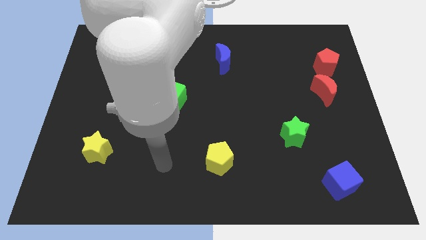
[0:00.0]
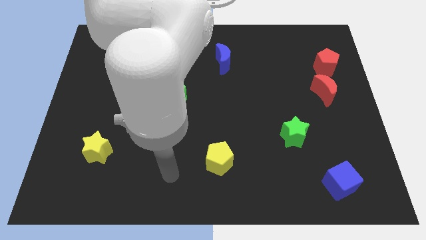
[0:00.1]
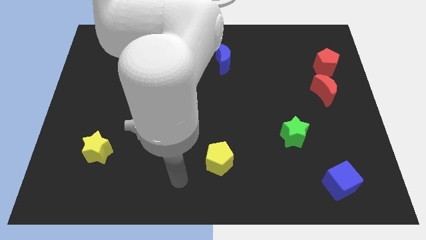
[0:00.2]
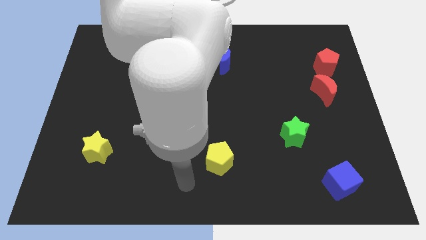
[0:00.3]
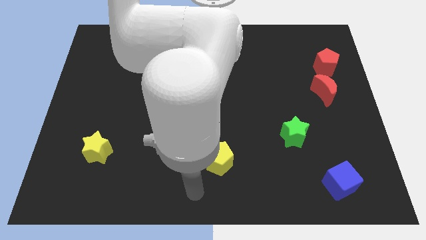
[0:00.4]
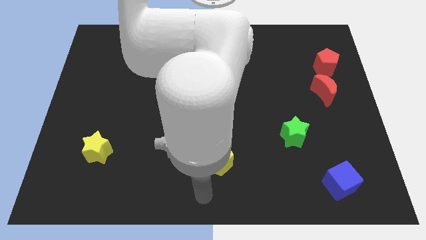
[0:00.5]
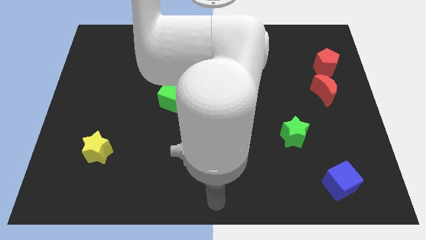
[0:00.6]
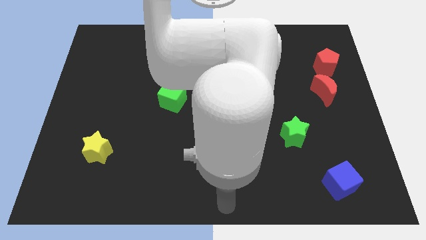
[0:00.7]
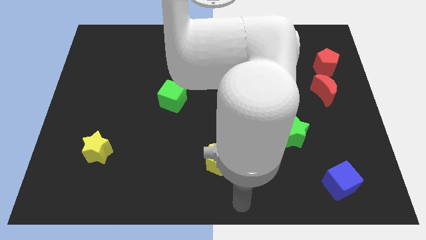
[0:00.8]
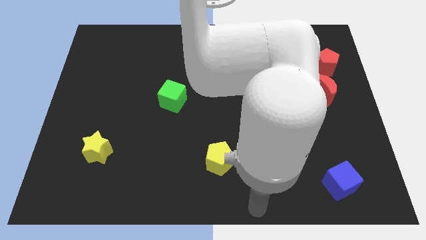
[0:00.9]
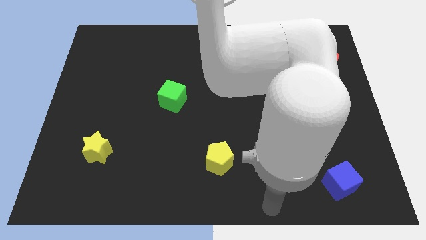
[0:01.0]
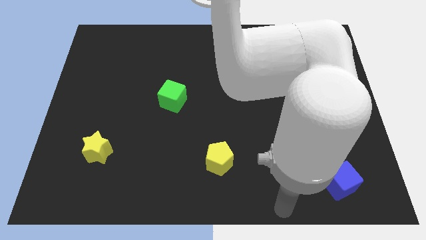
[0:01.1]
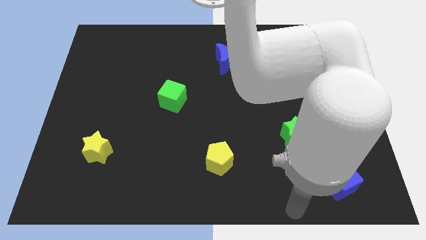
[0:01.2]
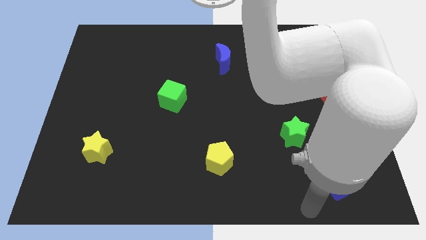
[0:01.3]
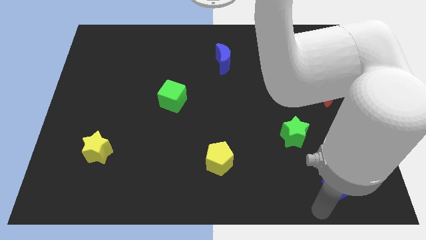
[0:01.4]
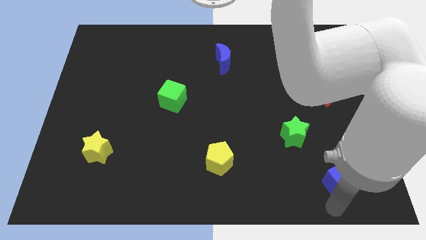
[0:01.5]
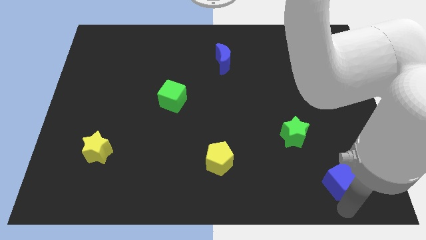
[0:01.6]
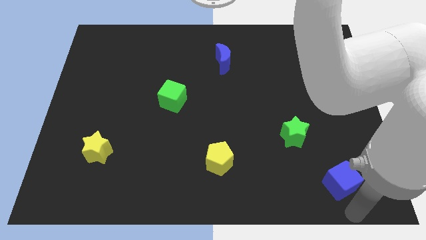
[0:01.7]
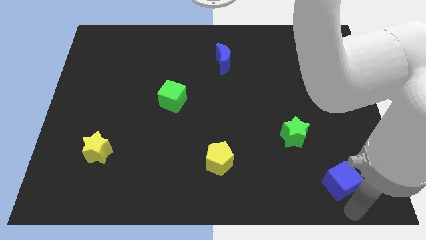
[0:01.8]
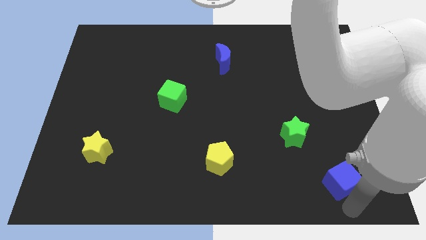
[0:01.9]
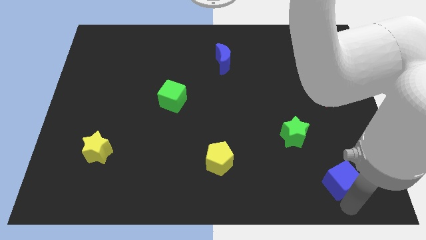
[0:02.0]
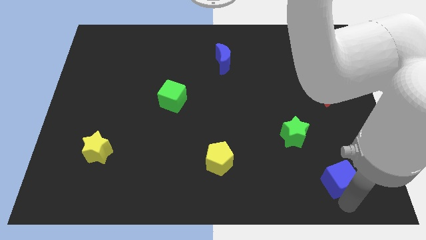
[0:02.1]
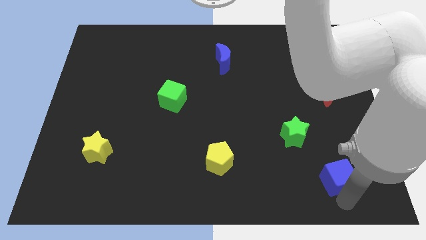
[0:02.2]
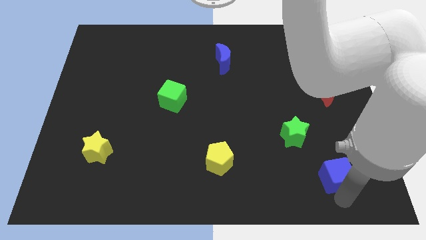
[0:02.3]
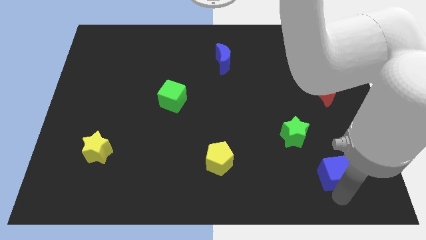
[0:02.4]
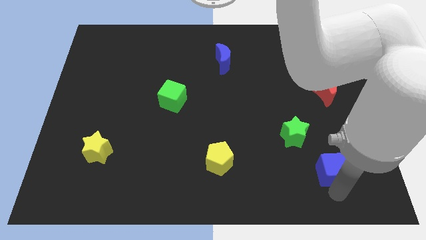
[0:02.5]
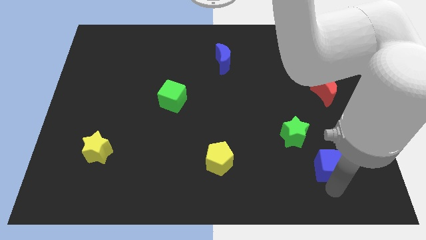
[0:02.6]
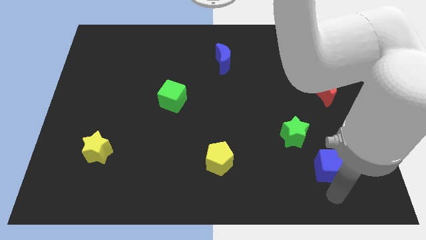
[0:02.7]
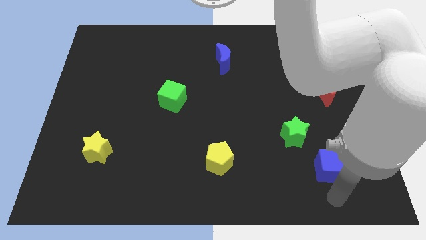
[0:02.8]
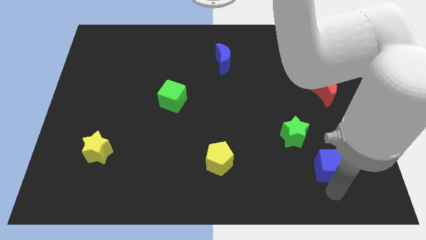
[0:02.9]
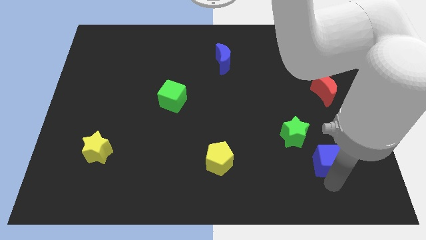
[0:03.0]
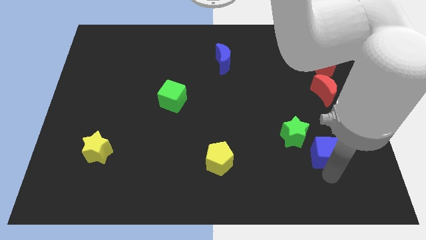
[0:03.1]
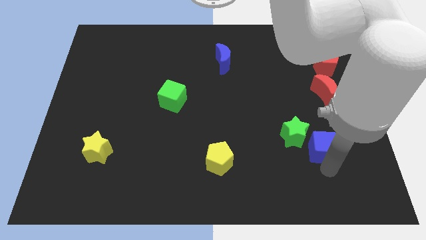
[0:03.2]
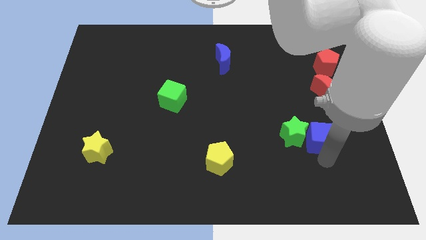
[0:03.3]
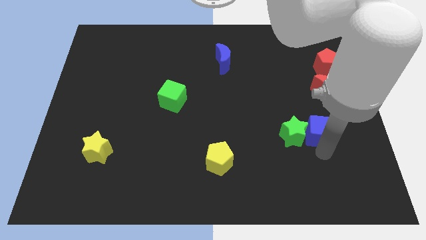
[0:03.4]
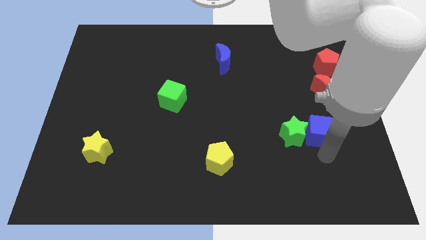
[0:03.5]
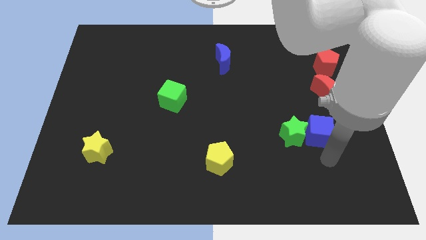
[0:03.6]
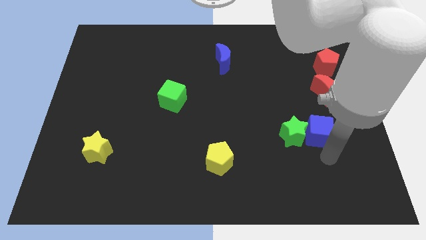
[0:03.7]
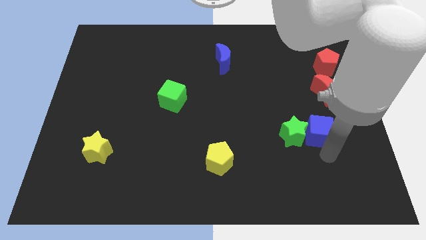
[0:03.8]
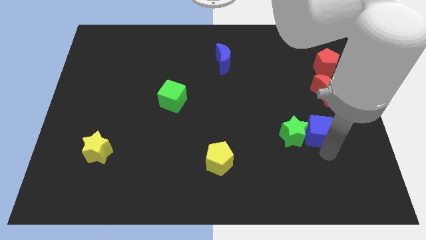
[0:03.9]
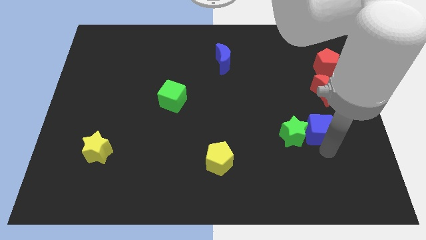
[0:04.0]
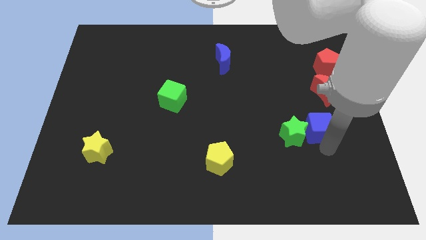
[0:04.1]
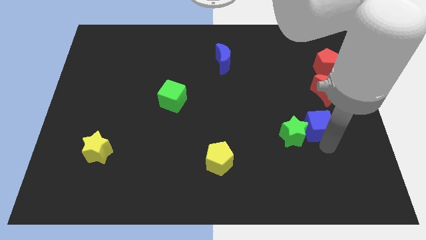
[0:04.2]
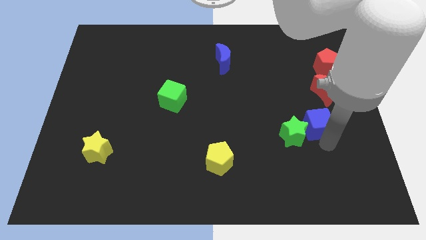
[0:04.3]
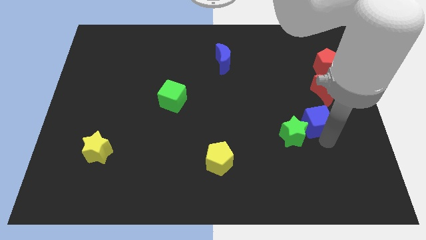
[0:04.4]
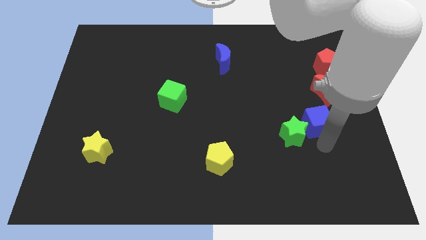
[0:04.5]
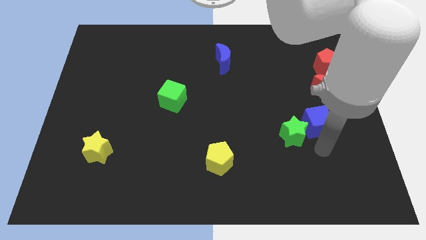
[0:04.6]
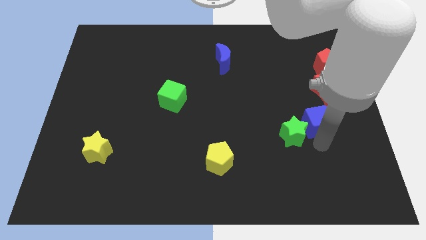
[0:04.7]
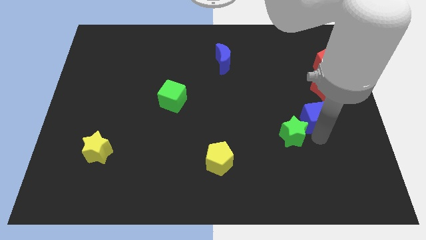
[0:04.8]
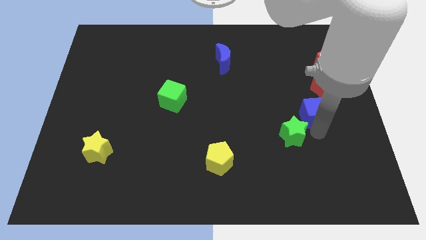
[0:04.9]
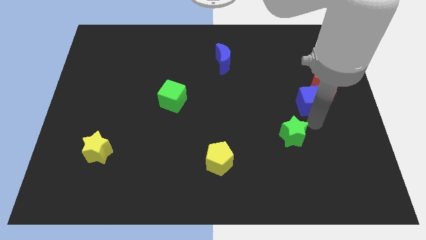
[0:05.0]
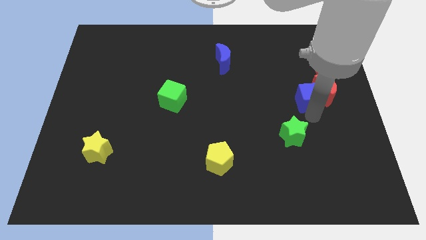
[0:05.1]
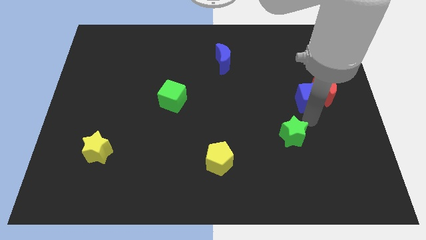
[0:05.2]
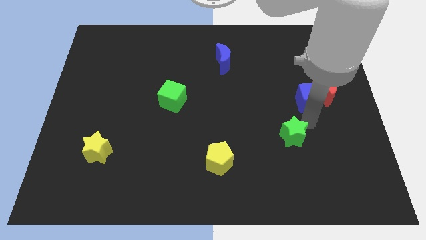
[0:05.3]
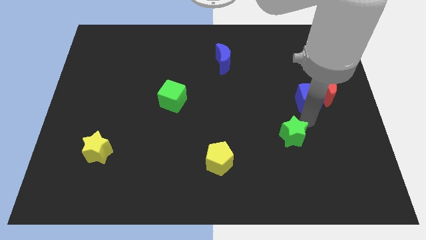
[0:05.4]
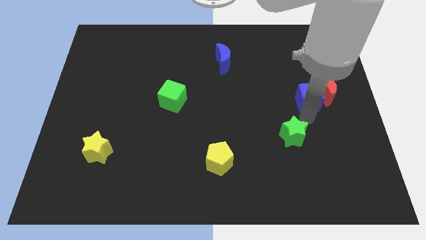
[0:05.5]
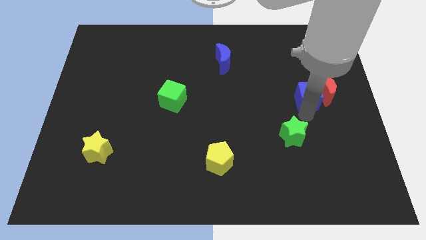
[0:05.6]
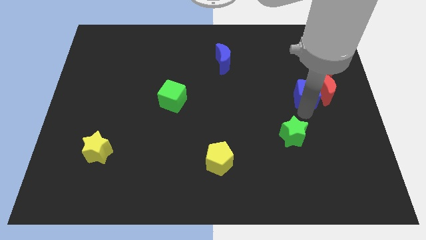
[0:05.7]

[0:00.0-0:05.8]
move the blue cube diagonally down and to the left of the red pentagon

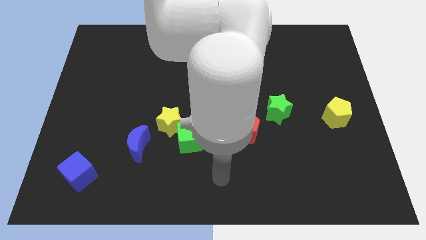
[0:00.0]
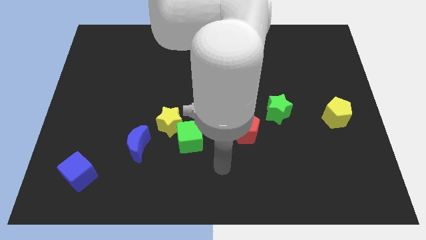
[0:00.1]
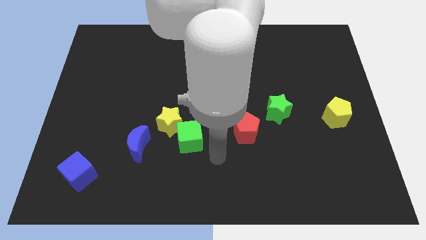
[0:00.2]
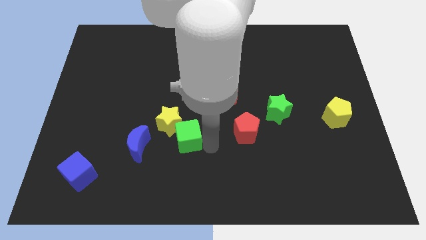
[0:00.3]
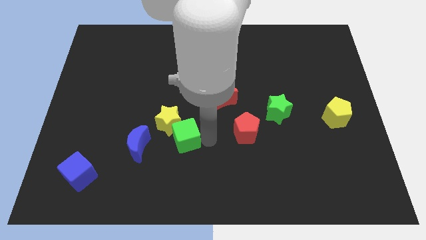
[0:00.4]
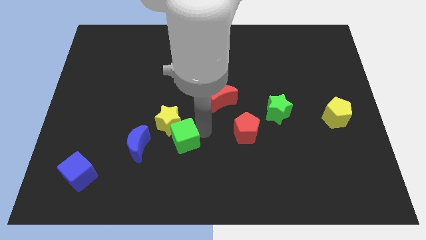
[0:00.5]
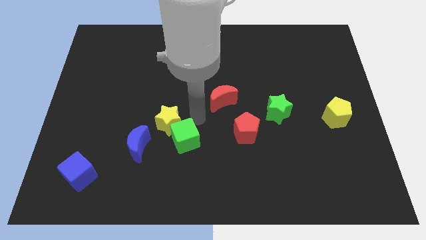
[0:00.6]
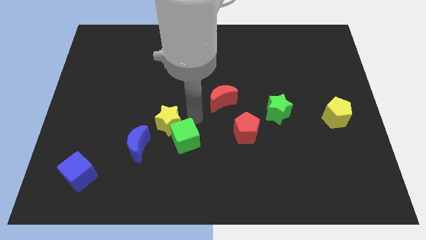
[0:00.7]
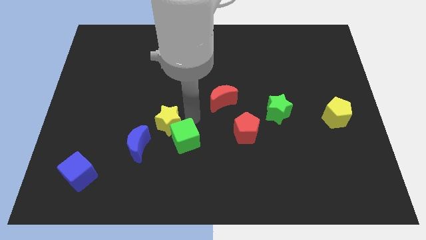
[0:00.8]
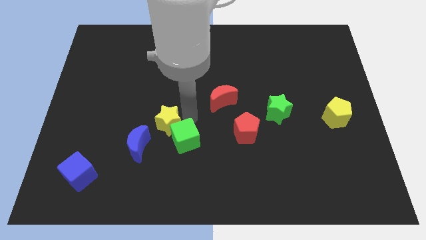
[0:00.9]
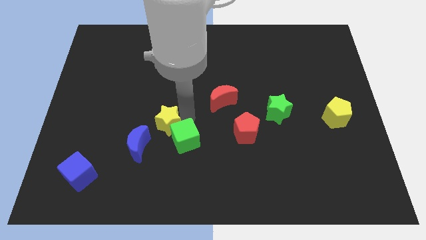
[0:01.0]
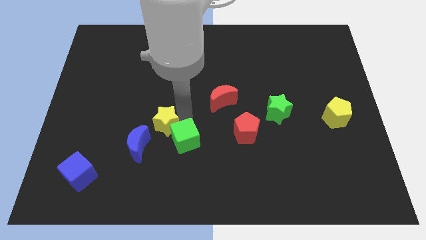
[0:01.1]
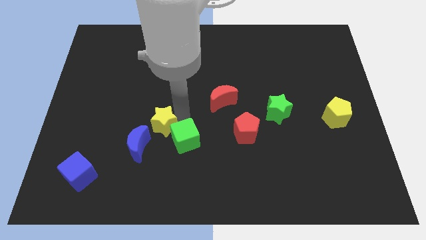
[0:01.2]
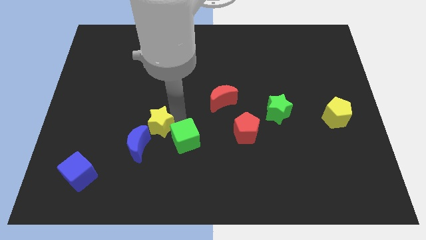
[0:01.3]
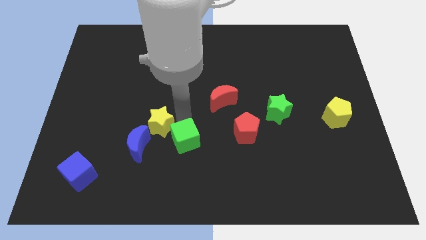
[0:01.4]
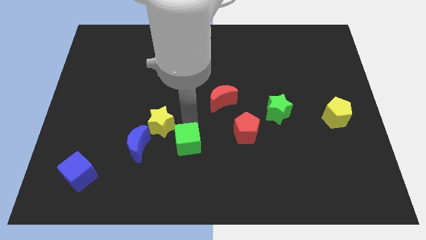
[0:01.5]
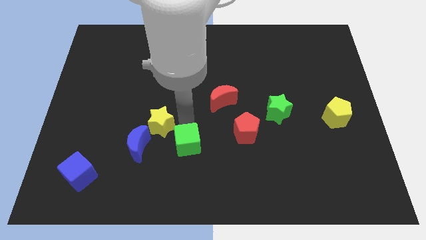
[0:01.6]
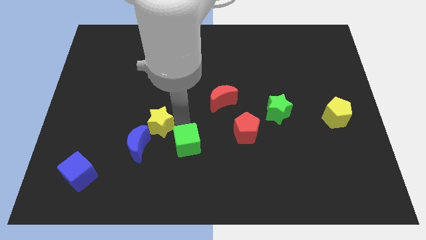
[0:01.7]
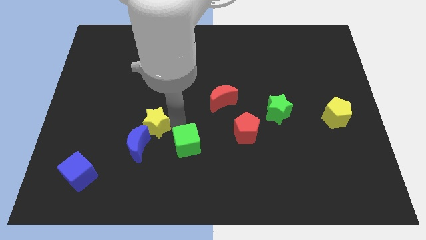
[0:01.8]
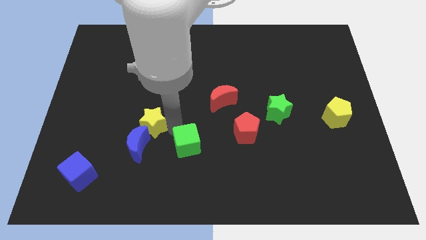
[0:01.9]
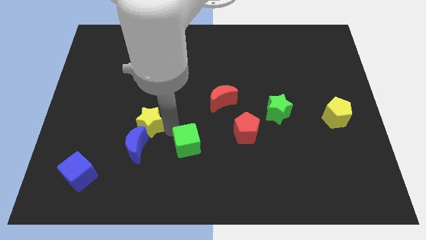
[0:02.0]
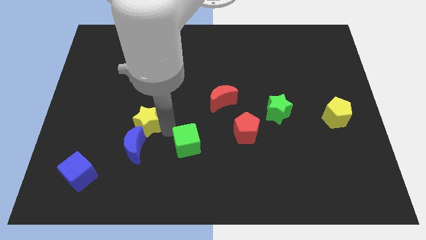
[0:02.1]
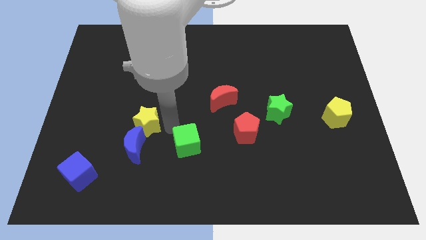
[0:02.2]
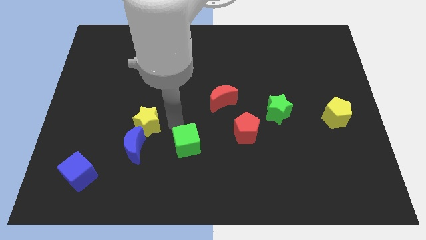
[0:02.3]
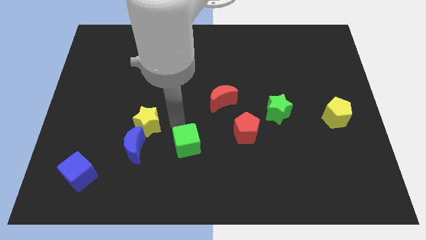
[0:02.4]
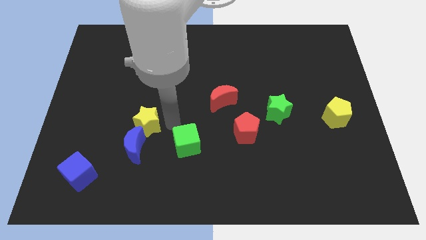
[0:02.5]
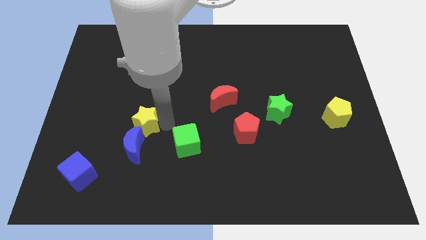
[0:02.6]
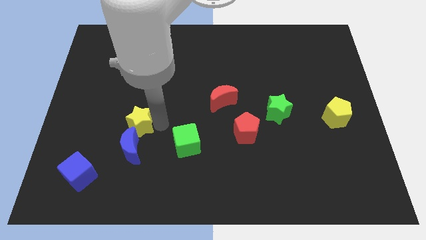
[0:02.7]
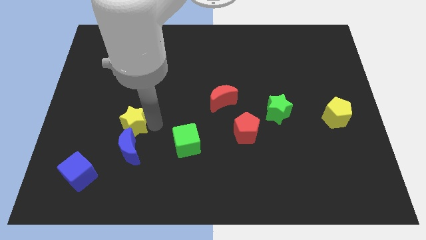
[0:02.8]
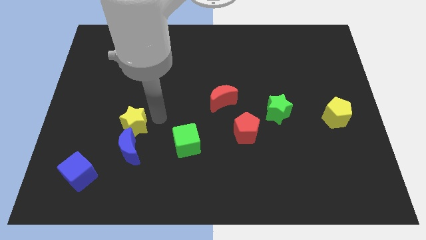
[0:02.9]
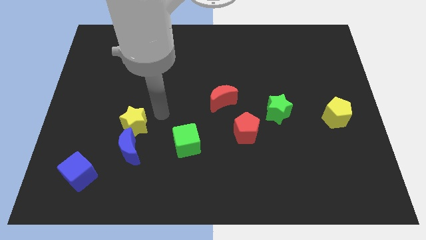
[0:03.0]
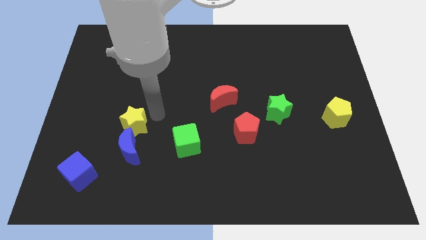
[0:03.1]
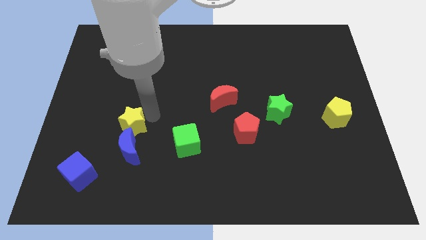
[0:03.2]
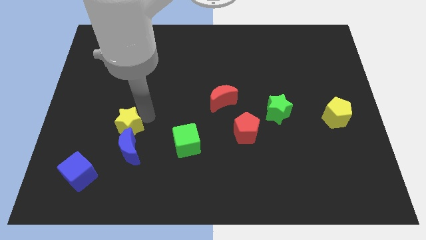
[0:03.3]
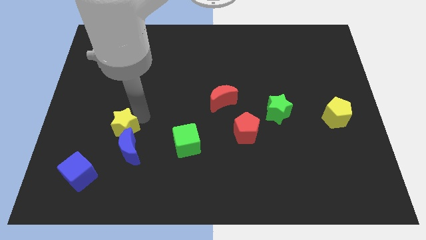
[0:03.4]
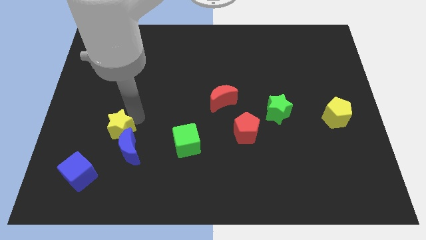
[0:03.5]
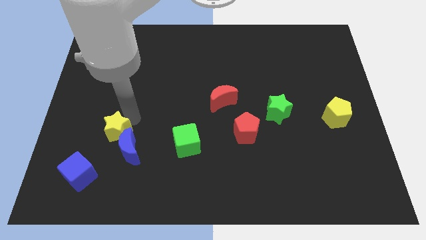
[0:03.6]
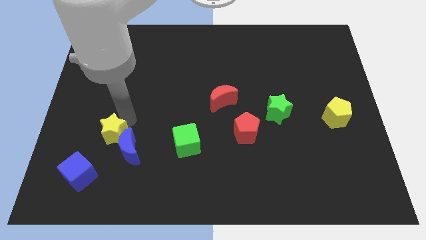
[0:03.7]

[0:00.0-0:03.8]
slide the yellow star to the left side of the blue moon
